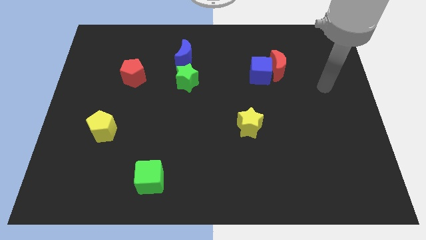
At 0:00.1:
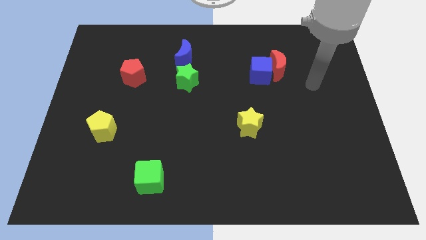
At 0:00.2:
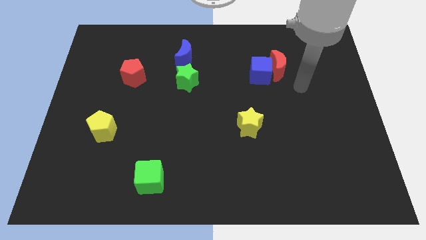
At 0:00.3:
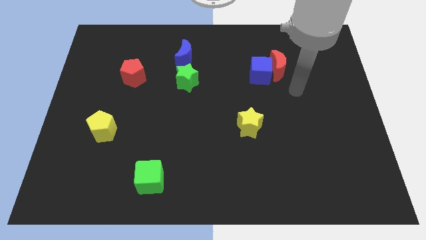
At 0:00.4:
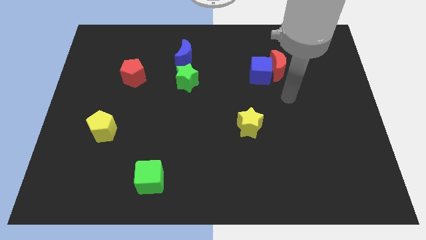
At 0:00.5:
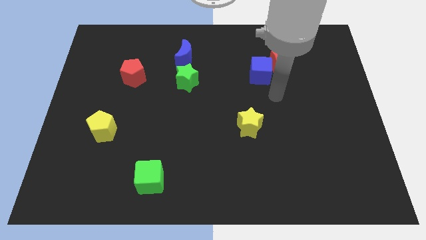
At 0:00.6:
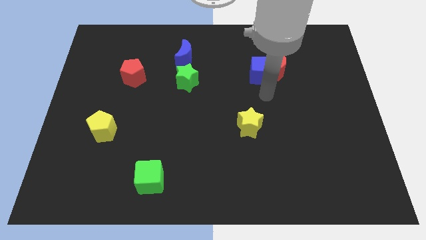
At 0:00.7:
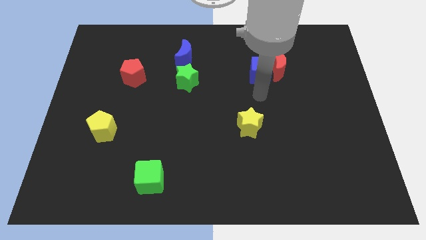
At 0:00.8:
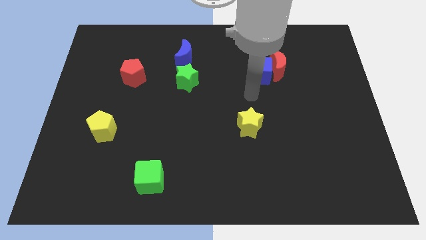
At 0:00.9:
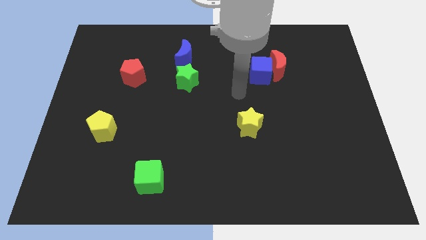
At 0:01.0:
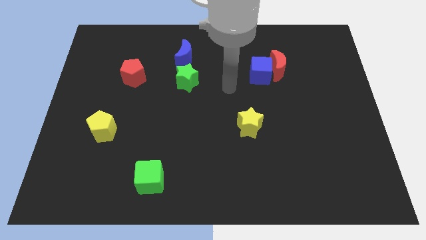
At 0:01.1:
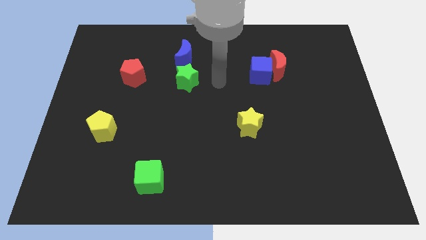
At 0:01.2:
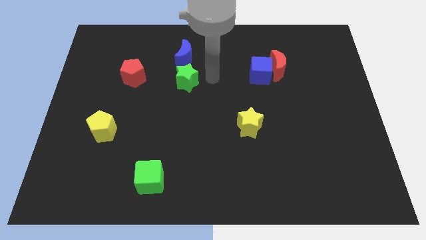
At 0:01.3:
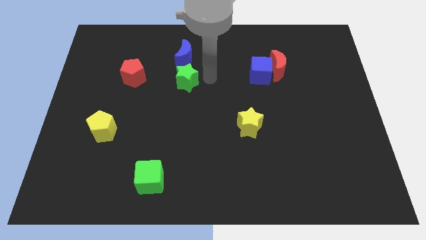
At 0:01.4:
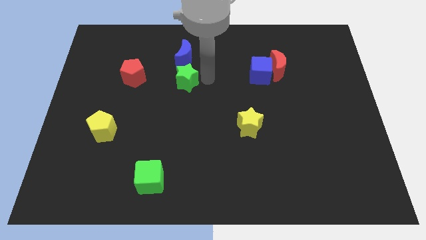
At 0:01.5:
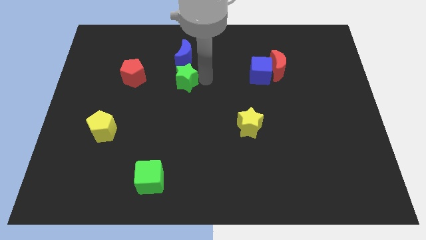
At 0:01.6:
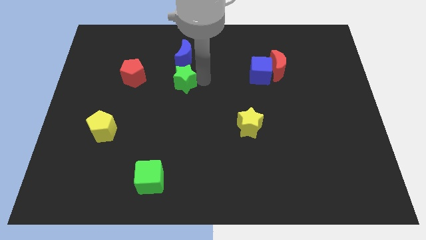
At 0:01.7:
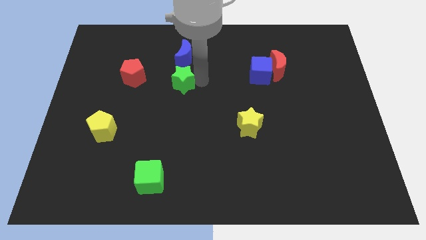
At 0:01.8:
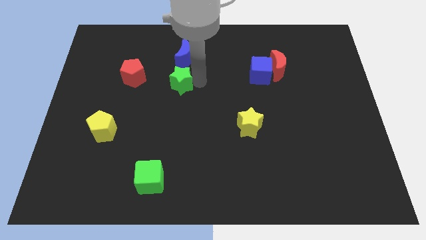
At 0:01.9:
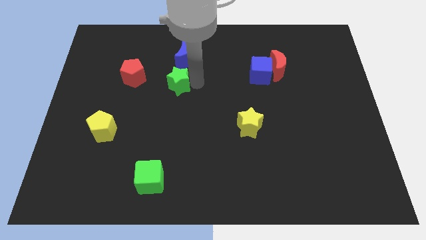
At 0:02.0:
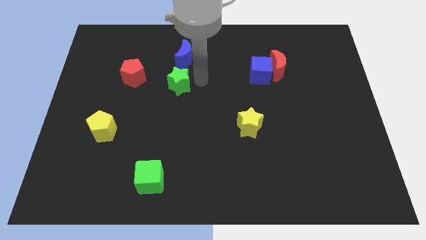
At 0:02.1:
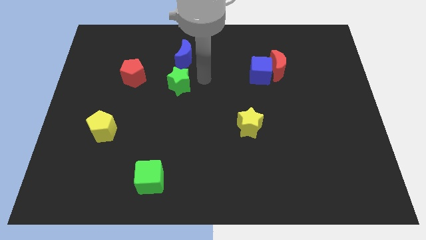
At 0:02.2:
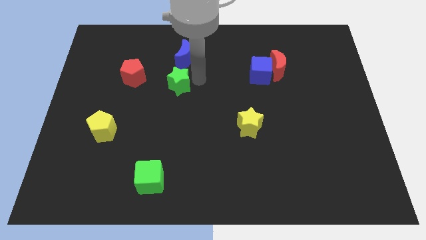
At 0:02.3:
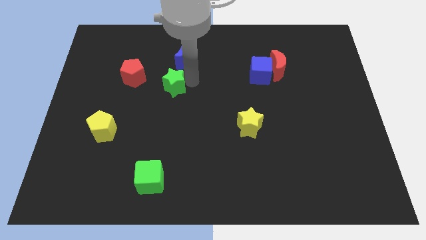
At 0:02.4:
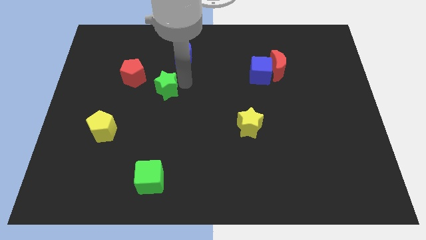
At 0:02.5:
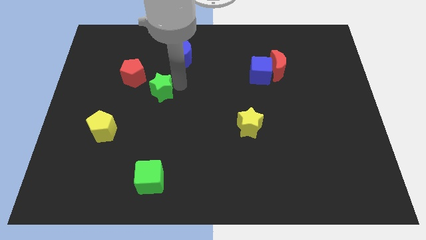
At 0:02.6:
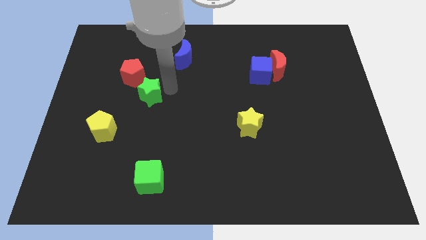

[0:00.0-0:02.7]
slightly move the green star left

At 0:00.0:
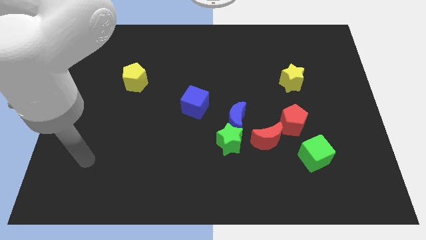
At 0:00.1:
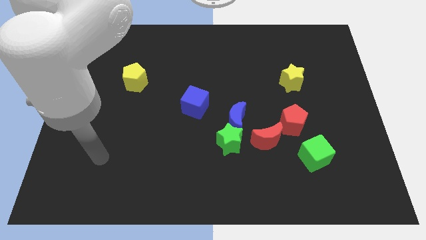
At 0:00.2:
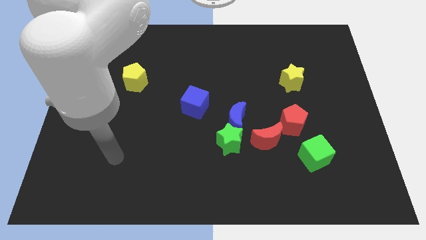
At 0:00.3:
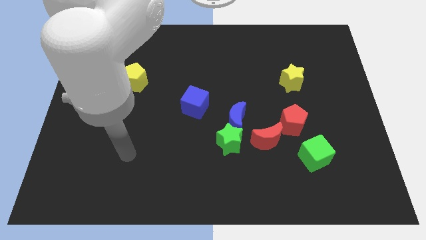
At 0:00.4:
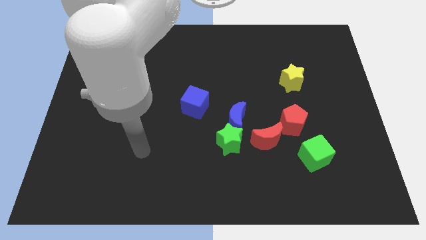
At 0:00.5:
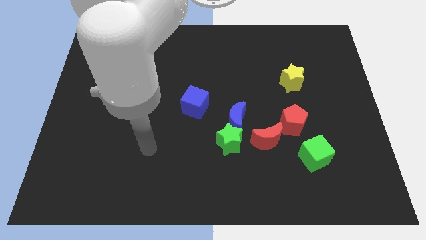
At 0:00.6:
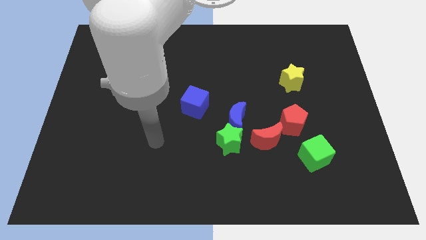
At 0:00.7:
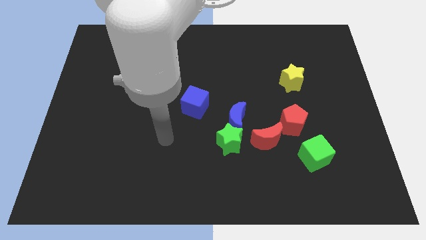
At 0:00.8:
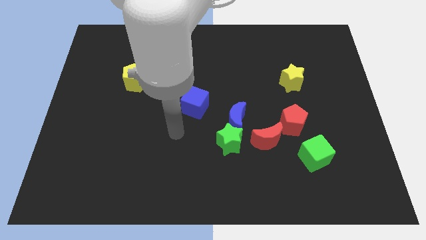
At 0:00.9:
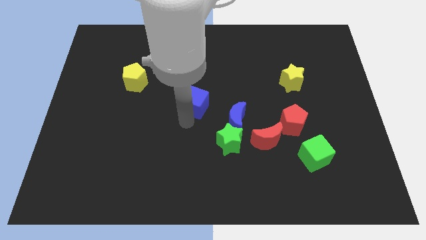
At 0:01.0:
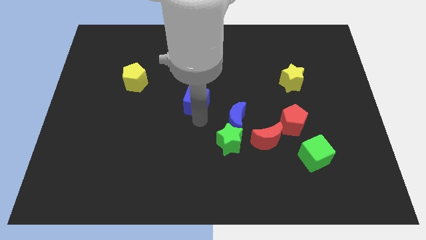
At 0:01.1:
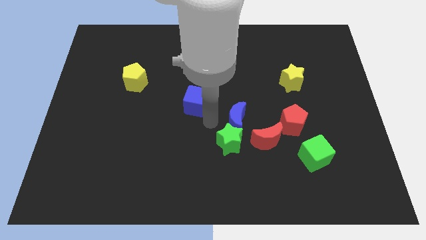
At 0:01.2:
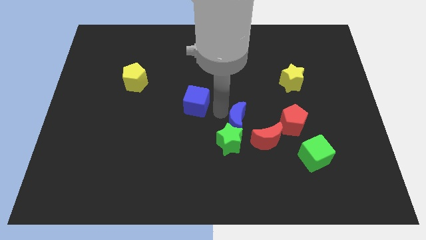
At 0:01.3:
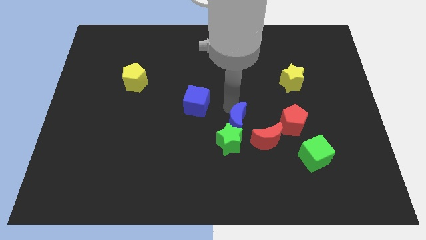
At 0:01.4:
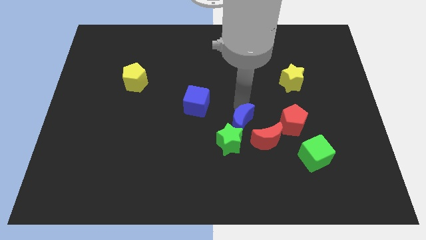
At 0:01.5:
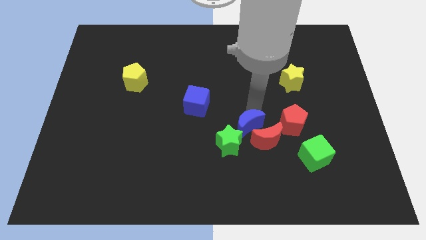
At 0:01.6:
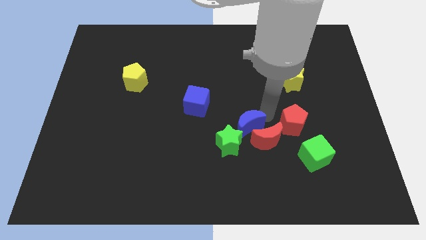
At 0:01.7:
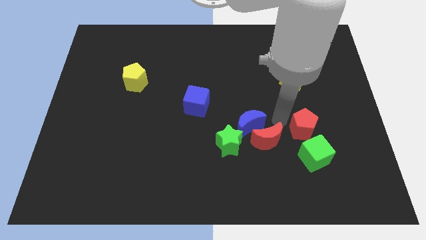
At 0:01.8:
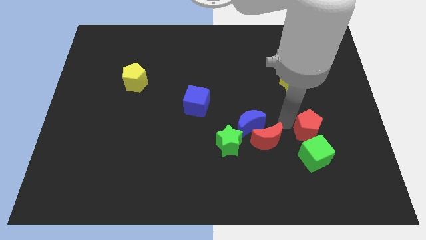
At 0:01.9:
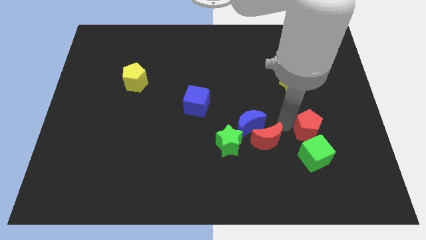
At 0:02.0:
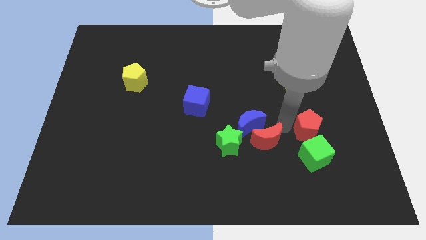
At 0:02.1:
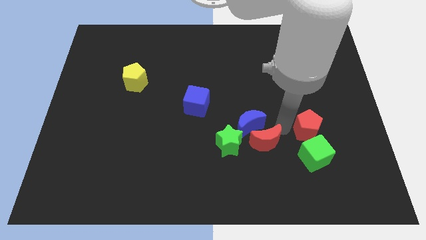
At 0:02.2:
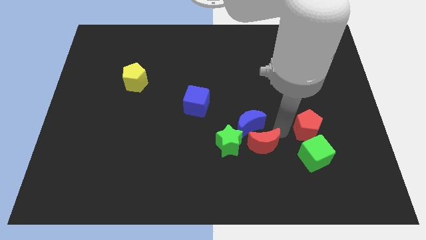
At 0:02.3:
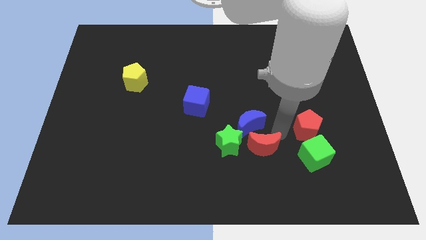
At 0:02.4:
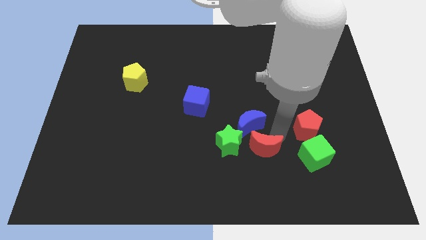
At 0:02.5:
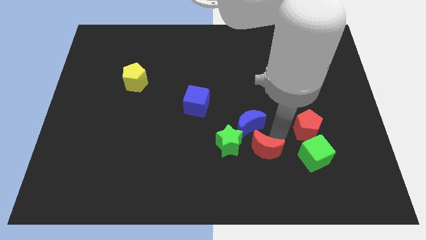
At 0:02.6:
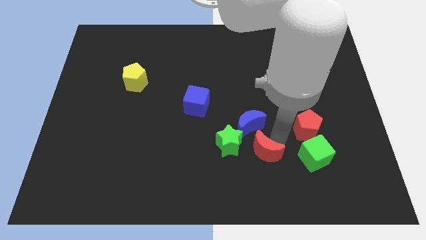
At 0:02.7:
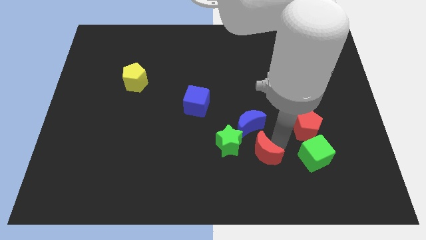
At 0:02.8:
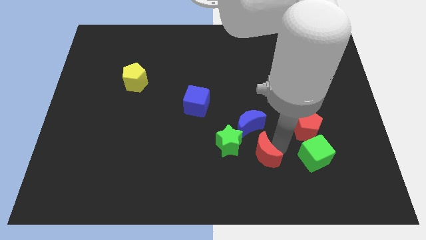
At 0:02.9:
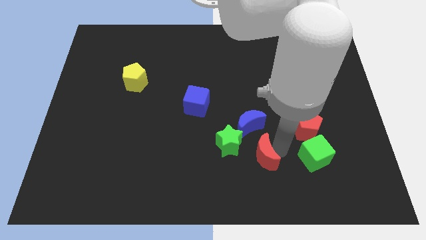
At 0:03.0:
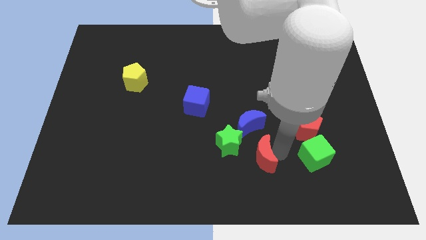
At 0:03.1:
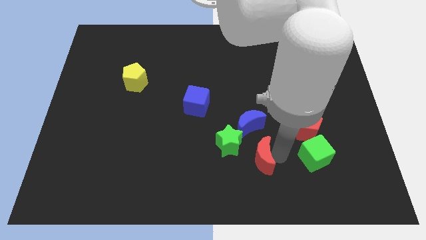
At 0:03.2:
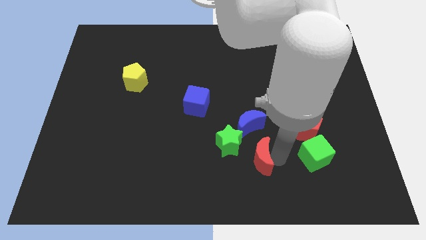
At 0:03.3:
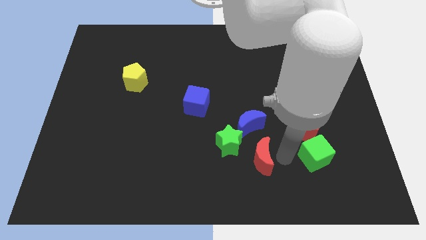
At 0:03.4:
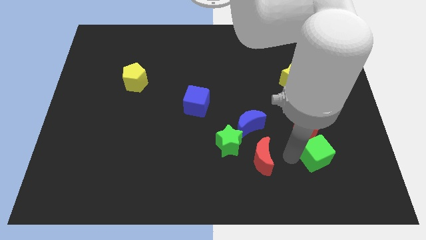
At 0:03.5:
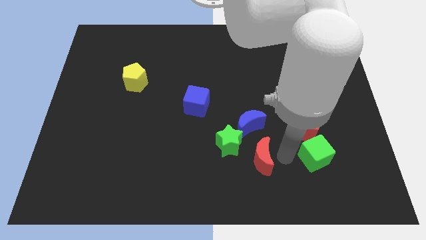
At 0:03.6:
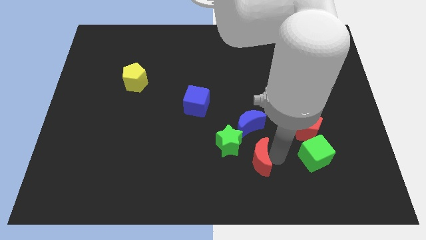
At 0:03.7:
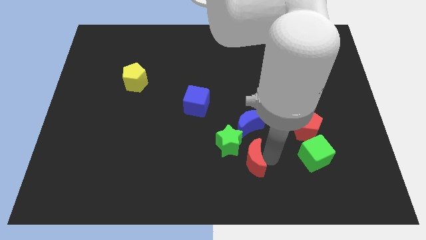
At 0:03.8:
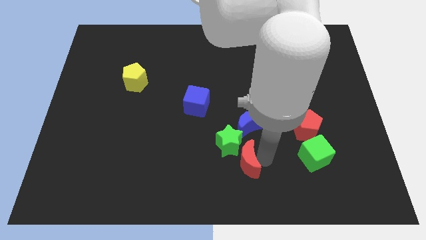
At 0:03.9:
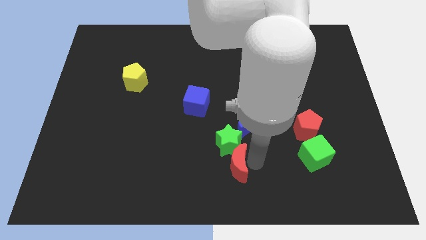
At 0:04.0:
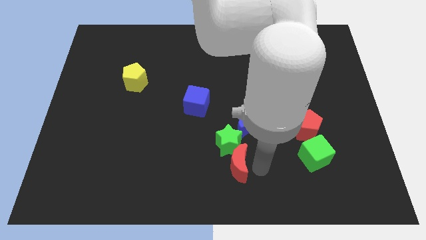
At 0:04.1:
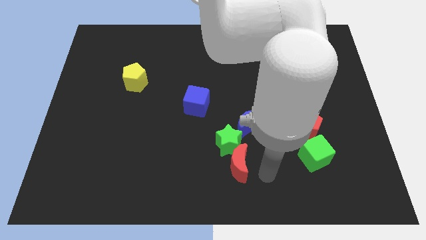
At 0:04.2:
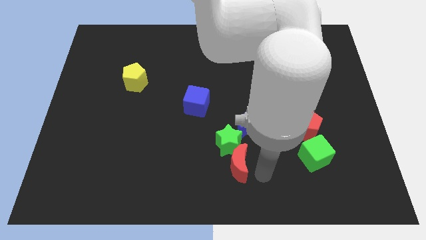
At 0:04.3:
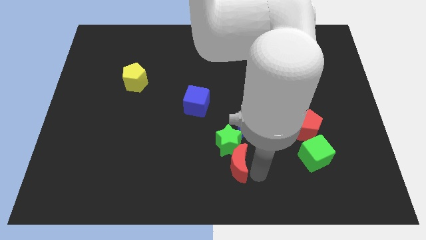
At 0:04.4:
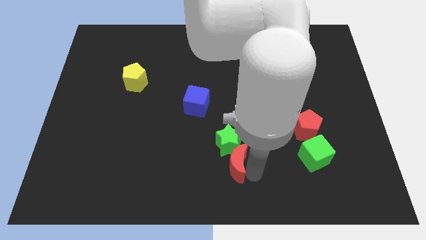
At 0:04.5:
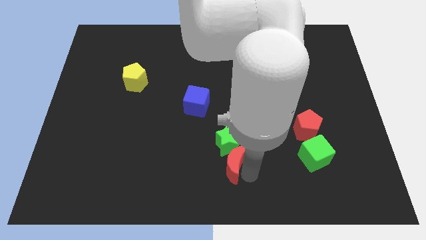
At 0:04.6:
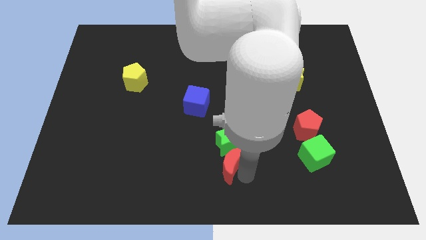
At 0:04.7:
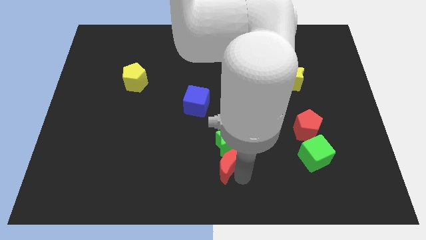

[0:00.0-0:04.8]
slightly slide the red moon left

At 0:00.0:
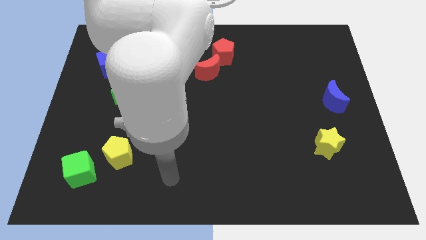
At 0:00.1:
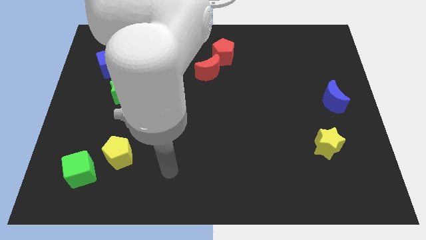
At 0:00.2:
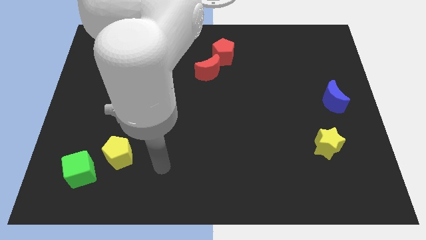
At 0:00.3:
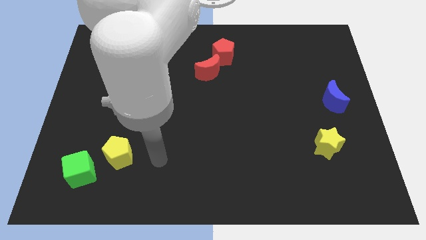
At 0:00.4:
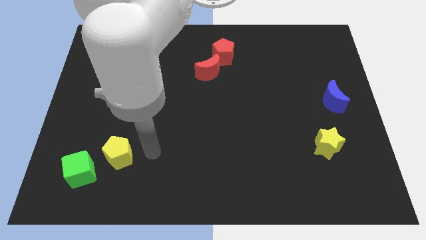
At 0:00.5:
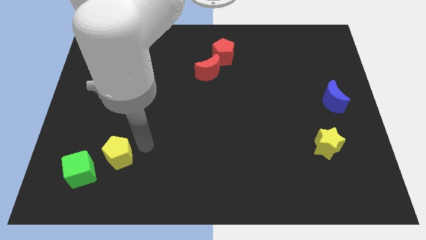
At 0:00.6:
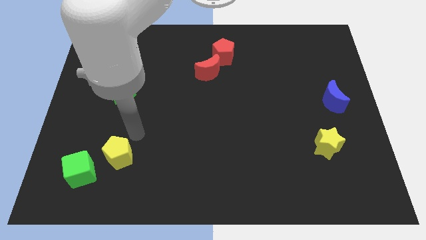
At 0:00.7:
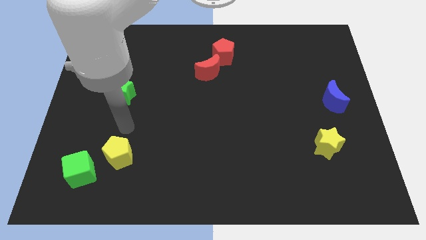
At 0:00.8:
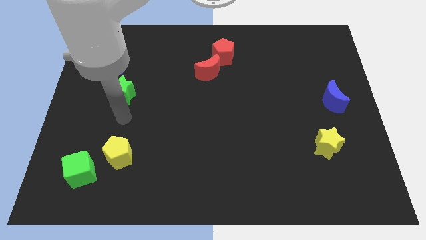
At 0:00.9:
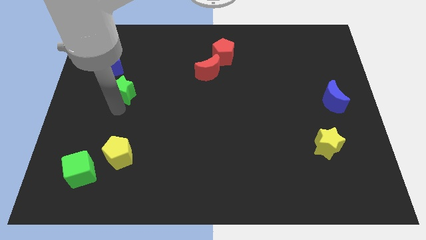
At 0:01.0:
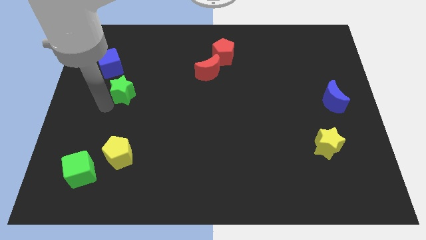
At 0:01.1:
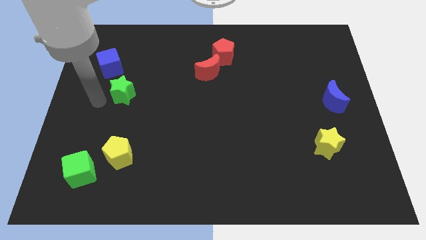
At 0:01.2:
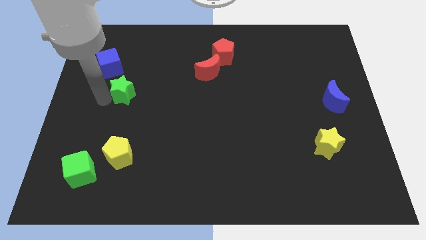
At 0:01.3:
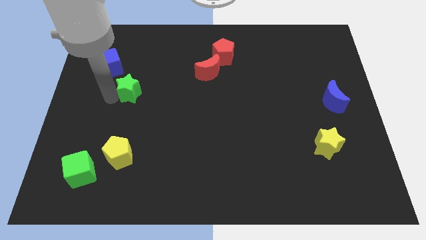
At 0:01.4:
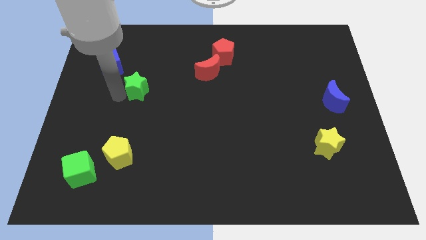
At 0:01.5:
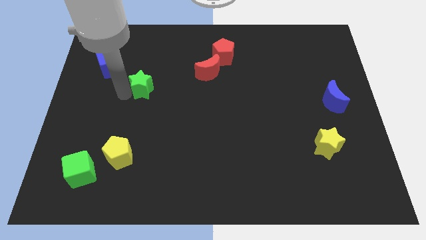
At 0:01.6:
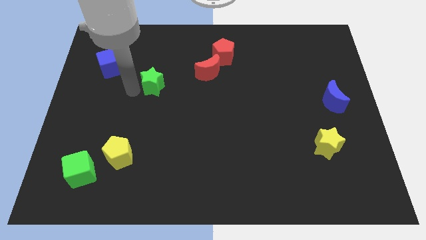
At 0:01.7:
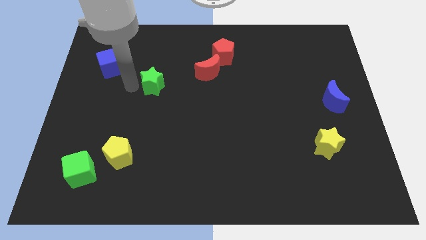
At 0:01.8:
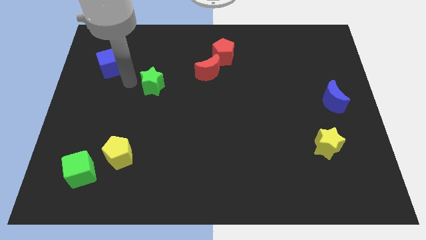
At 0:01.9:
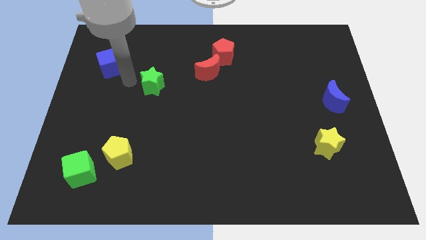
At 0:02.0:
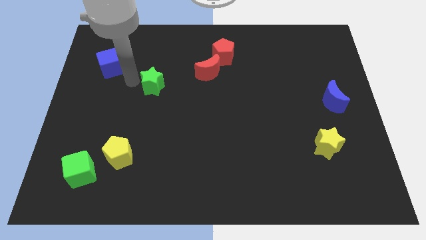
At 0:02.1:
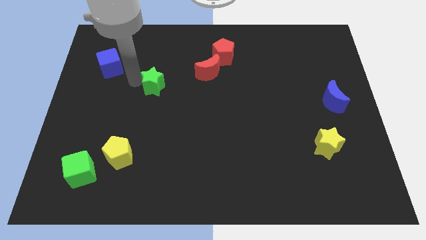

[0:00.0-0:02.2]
push the green star to the right a little bit
